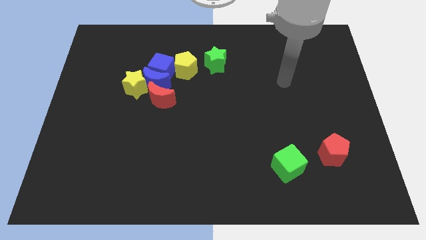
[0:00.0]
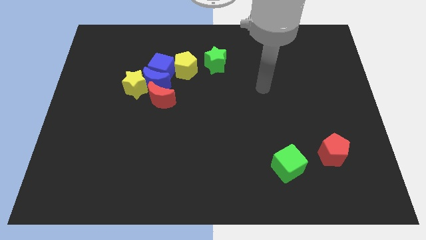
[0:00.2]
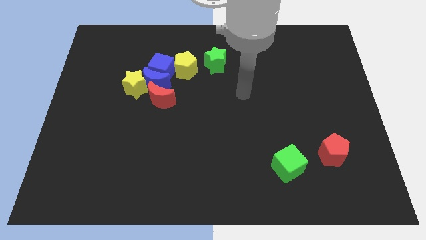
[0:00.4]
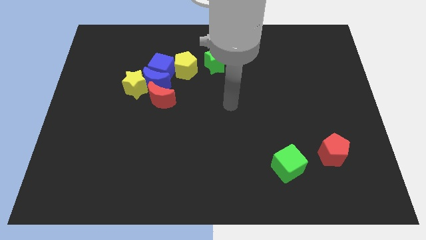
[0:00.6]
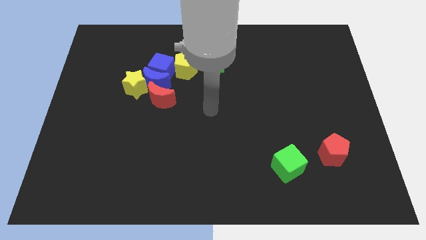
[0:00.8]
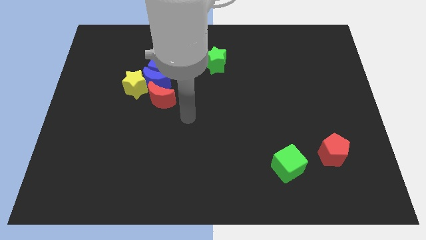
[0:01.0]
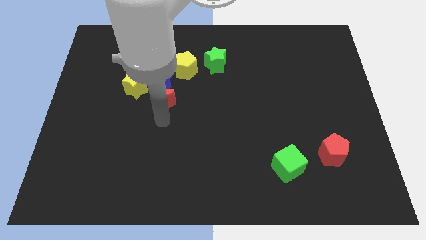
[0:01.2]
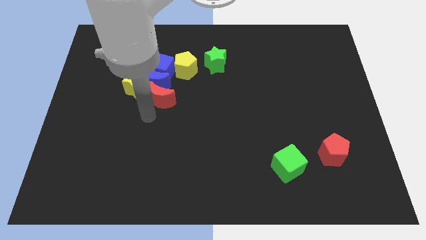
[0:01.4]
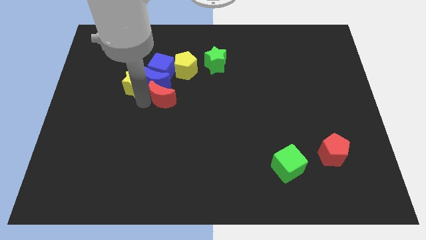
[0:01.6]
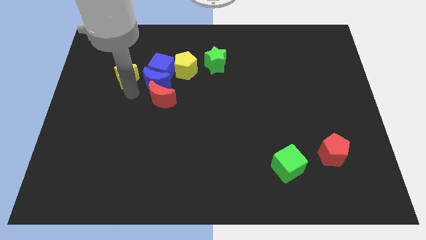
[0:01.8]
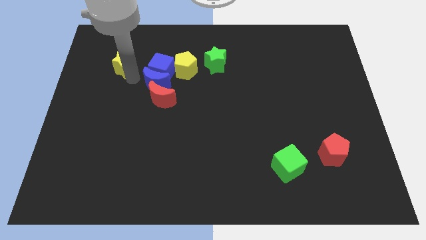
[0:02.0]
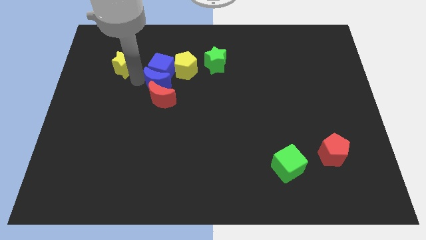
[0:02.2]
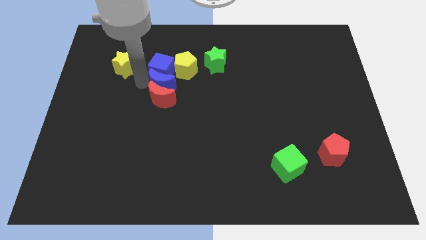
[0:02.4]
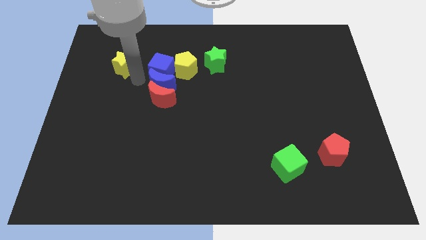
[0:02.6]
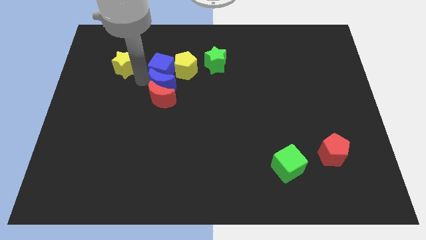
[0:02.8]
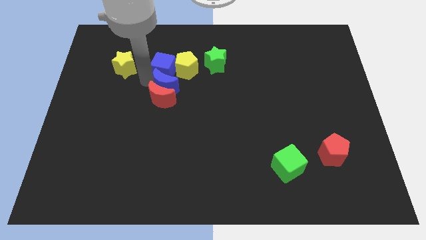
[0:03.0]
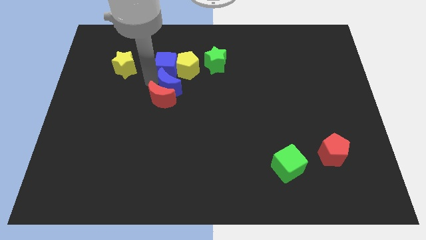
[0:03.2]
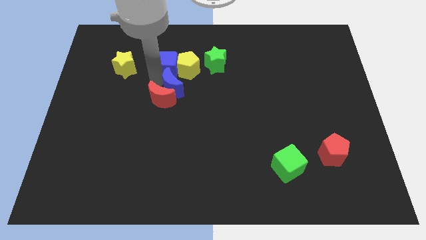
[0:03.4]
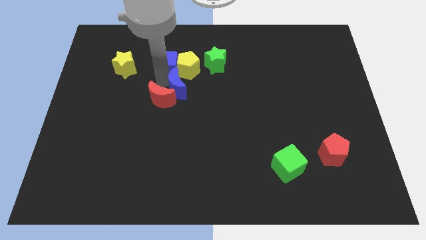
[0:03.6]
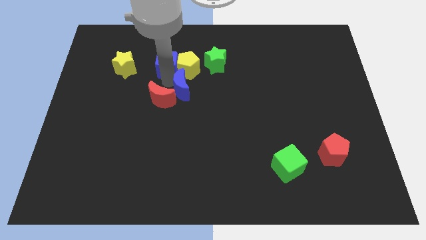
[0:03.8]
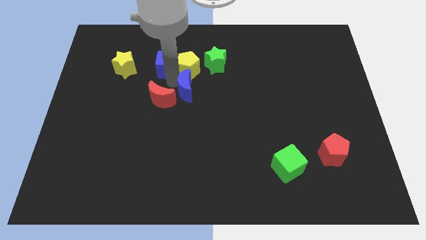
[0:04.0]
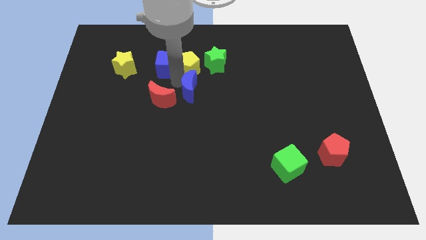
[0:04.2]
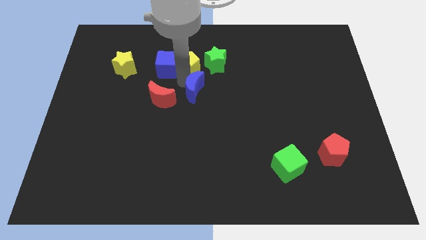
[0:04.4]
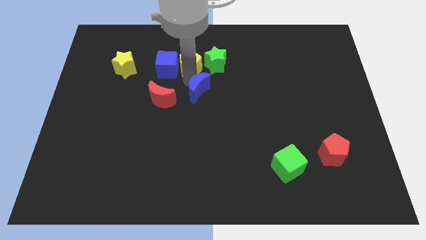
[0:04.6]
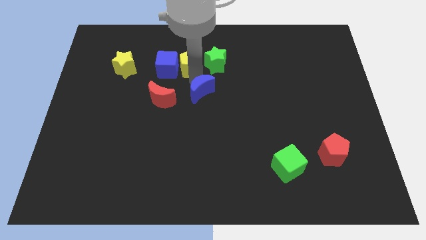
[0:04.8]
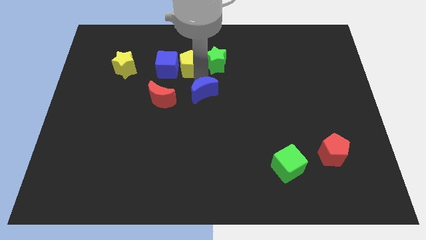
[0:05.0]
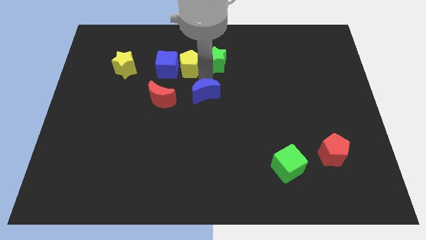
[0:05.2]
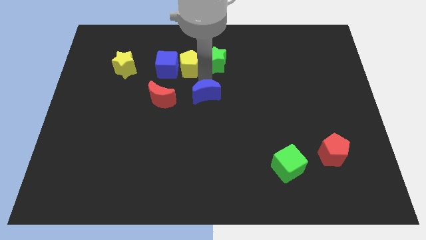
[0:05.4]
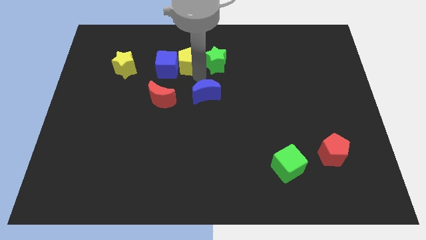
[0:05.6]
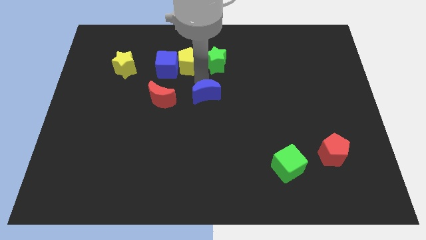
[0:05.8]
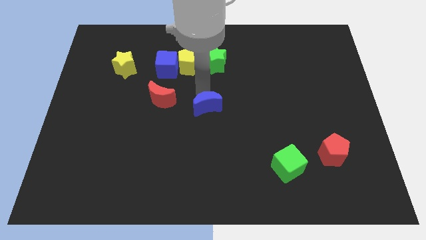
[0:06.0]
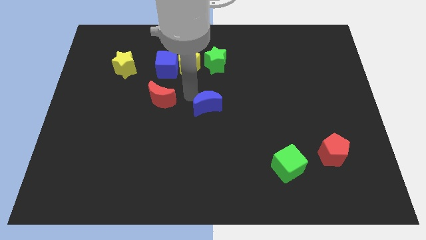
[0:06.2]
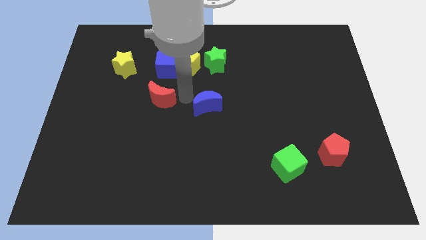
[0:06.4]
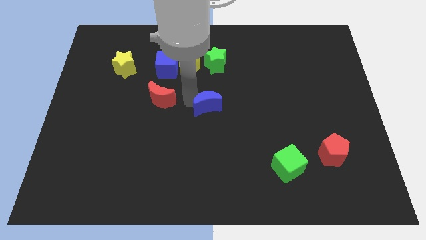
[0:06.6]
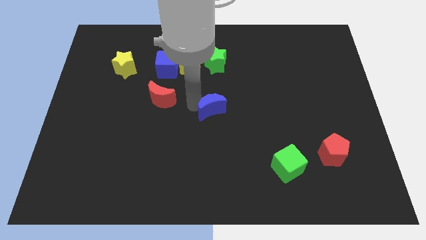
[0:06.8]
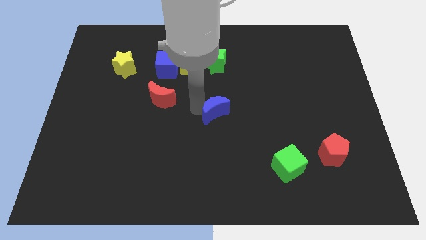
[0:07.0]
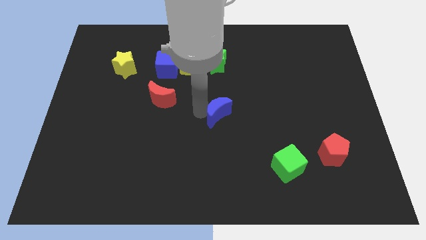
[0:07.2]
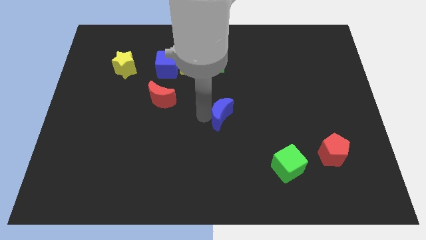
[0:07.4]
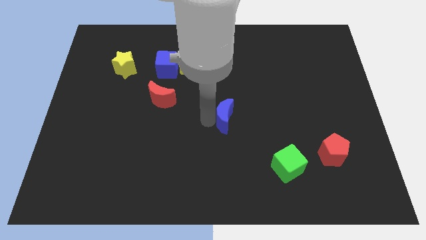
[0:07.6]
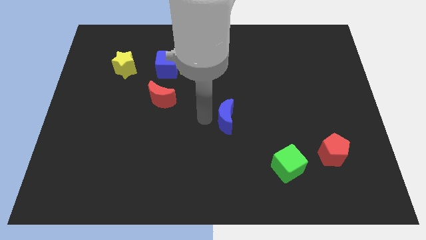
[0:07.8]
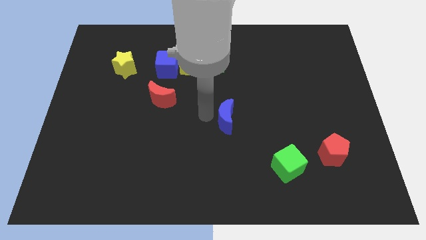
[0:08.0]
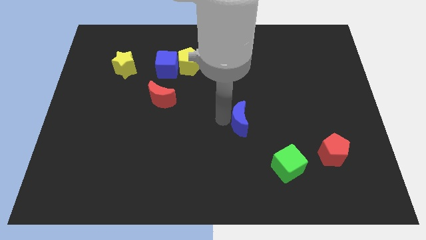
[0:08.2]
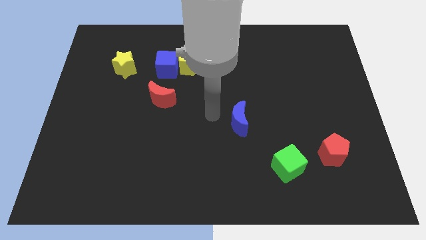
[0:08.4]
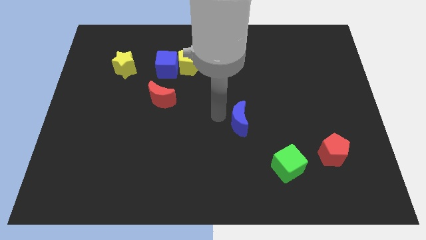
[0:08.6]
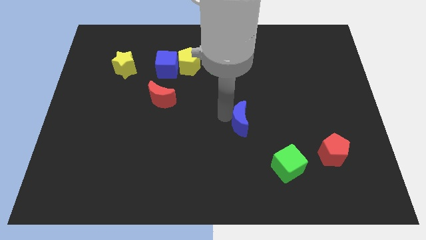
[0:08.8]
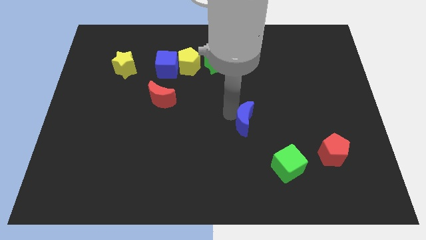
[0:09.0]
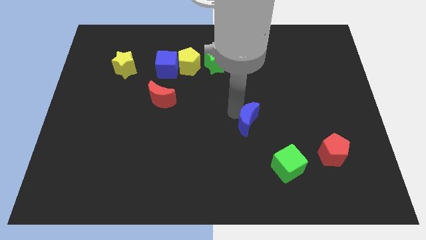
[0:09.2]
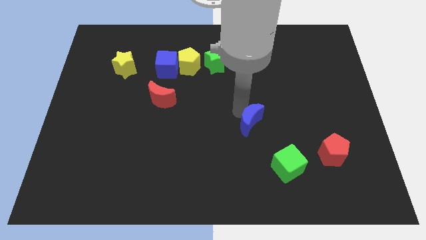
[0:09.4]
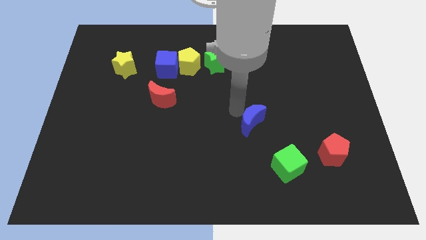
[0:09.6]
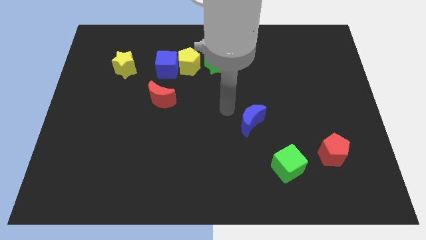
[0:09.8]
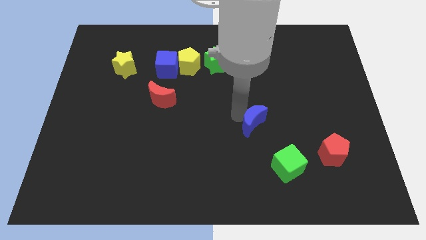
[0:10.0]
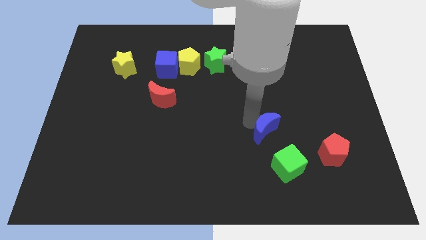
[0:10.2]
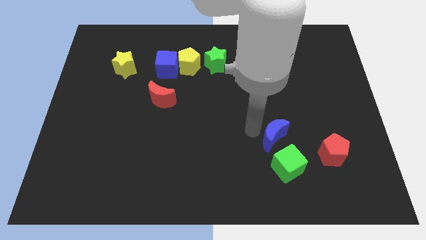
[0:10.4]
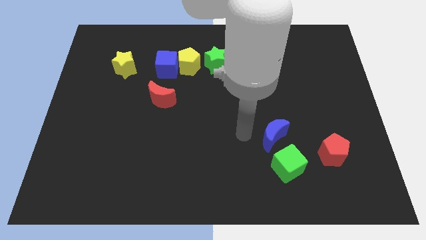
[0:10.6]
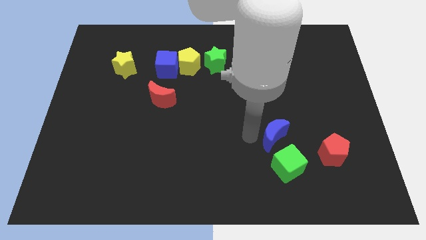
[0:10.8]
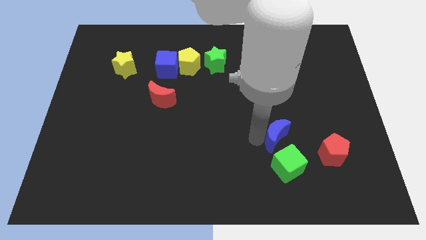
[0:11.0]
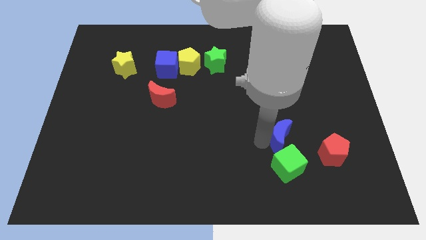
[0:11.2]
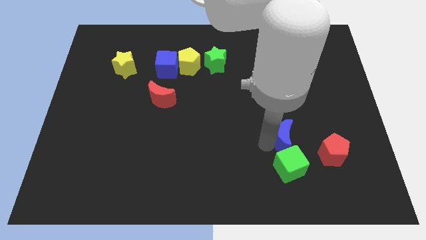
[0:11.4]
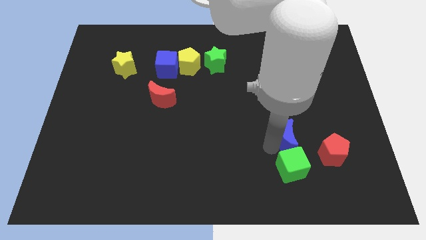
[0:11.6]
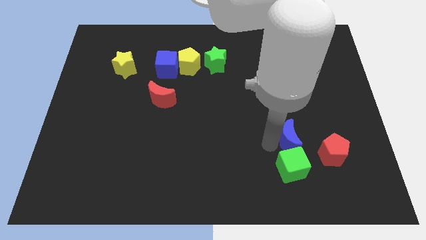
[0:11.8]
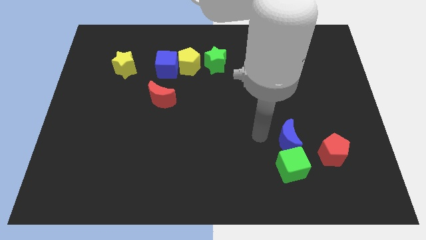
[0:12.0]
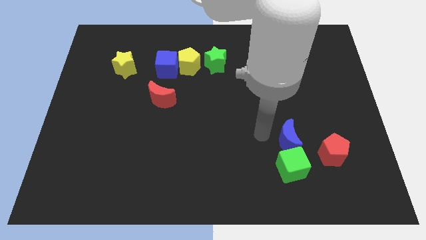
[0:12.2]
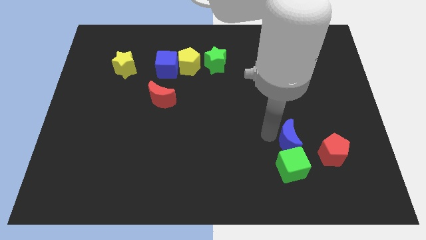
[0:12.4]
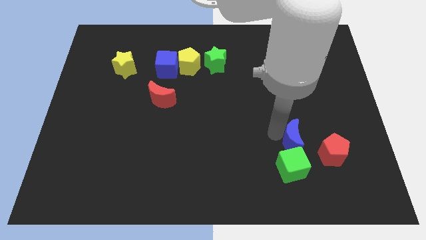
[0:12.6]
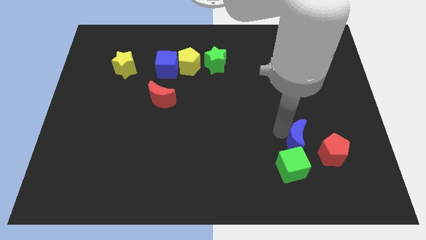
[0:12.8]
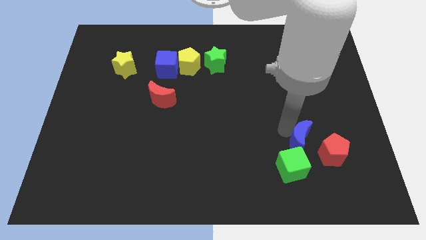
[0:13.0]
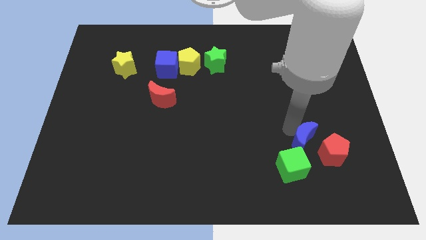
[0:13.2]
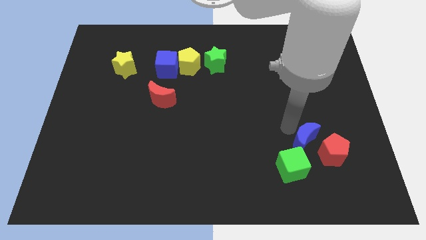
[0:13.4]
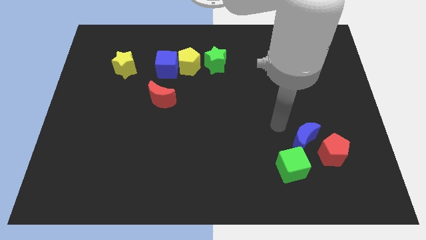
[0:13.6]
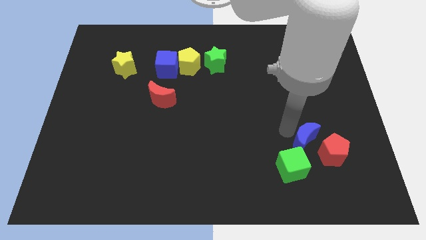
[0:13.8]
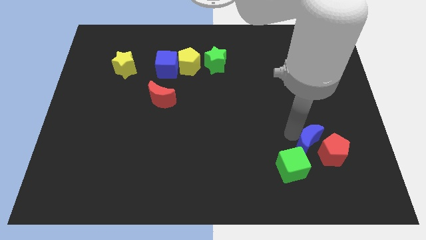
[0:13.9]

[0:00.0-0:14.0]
put the blue moon towards the red pentagon
